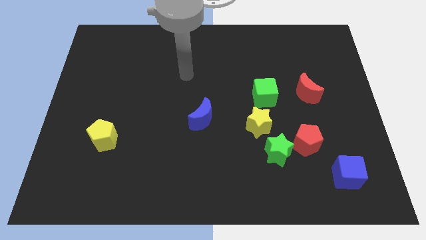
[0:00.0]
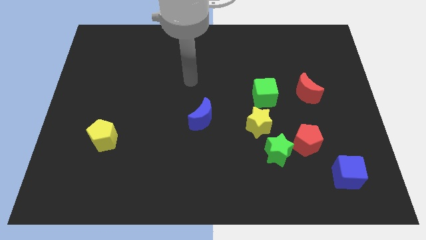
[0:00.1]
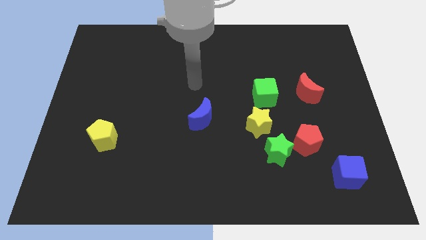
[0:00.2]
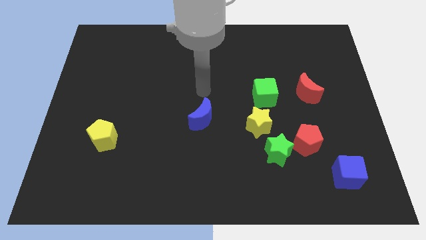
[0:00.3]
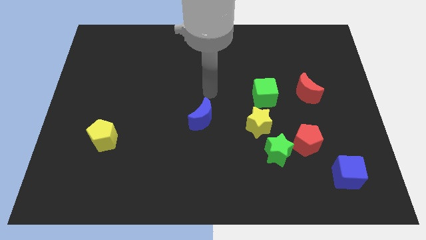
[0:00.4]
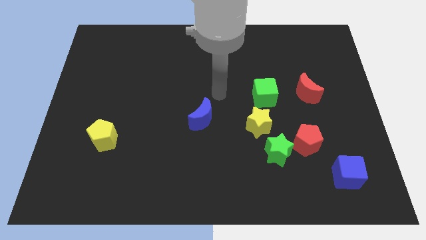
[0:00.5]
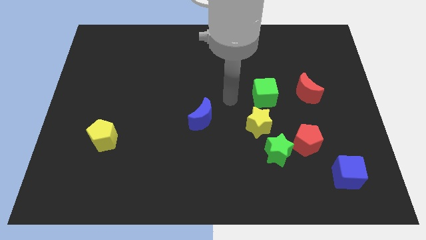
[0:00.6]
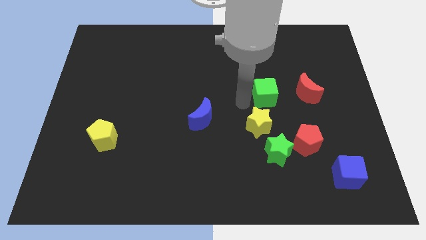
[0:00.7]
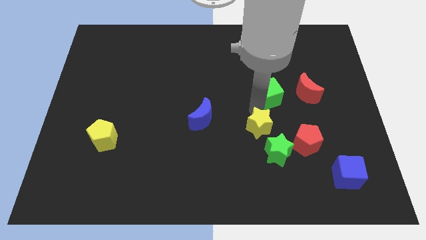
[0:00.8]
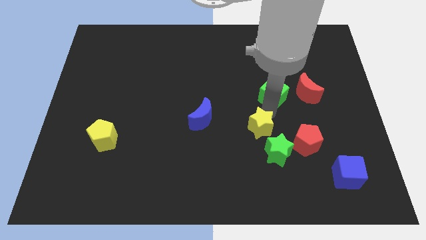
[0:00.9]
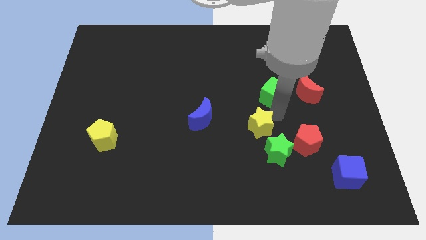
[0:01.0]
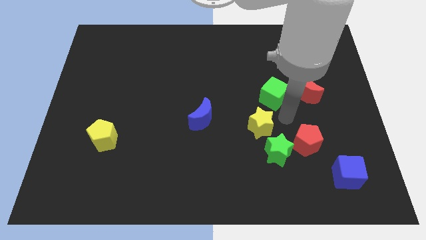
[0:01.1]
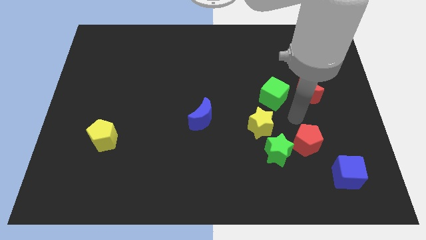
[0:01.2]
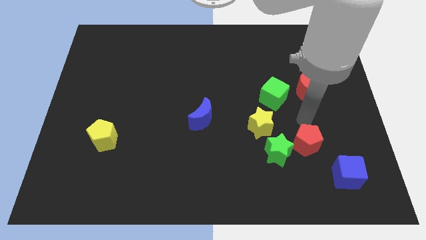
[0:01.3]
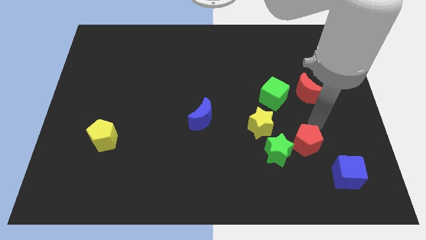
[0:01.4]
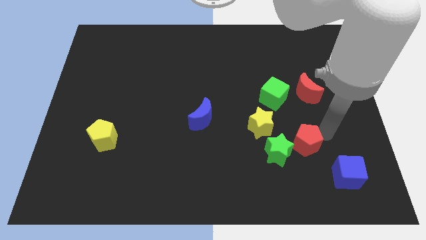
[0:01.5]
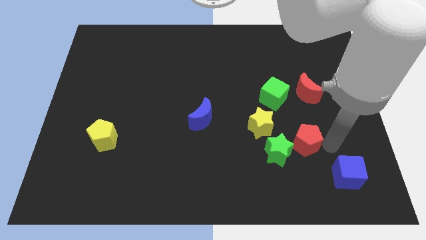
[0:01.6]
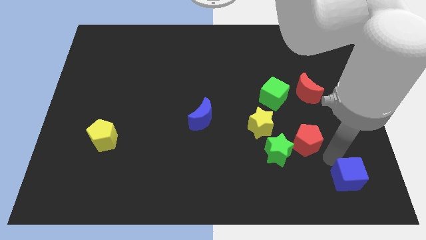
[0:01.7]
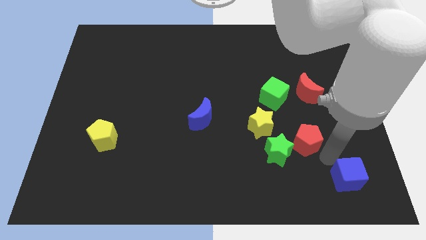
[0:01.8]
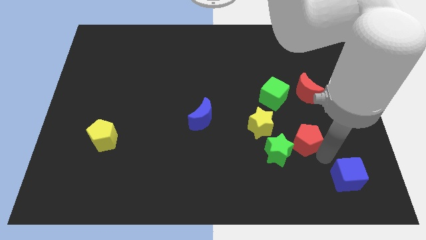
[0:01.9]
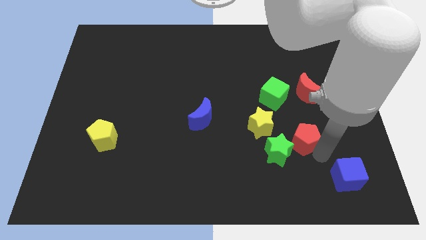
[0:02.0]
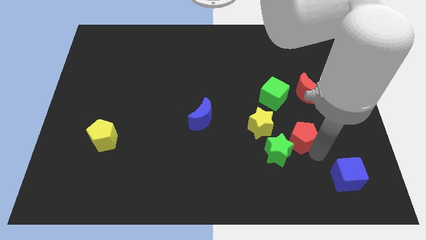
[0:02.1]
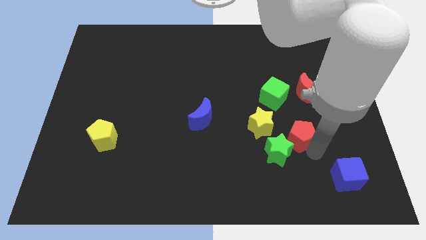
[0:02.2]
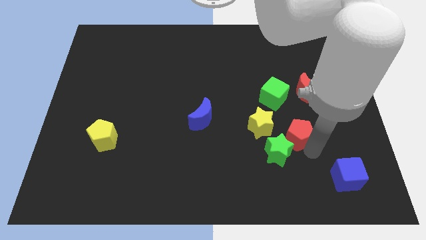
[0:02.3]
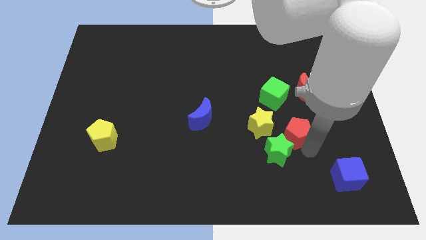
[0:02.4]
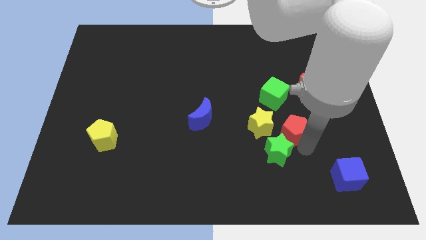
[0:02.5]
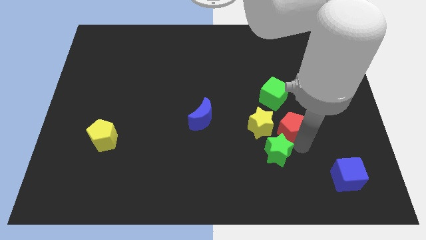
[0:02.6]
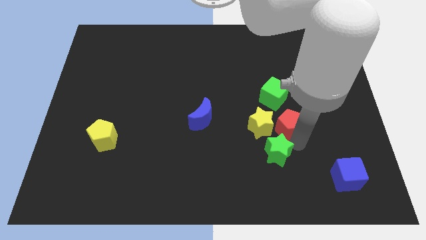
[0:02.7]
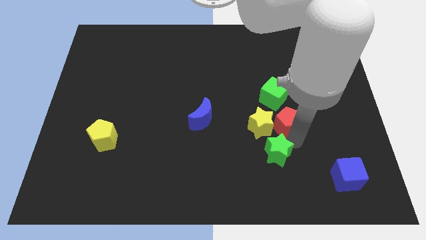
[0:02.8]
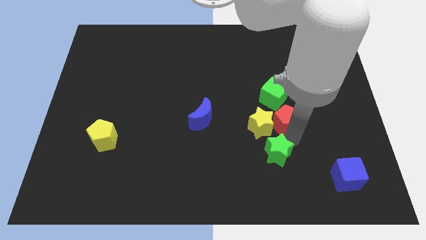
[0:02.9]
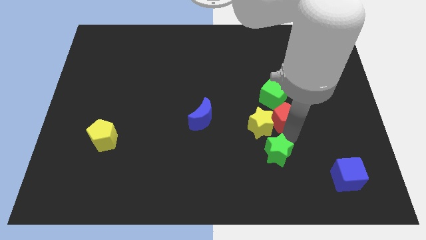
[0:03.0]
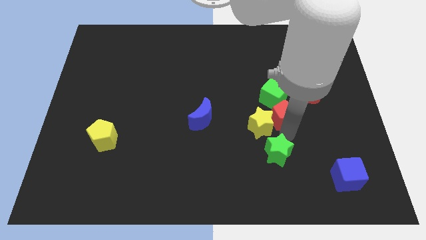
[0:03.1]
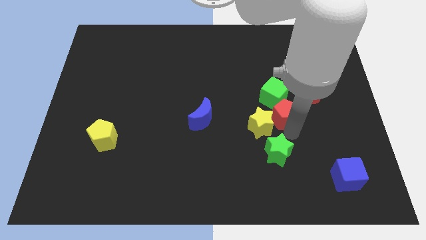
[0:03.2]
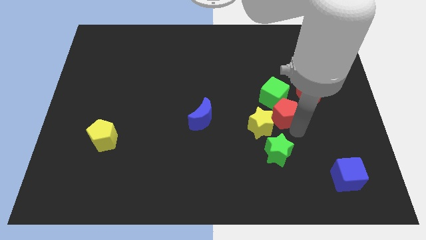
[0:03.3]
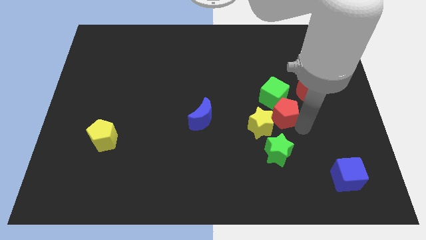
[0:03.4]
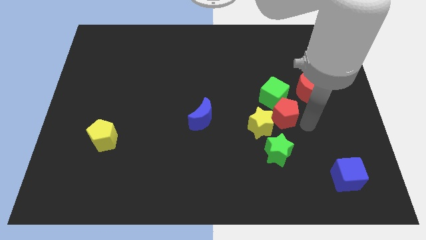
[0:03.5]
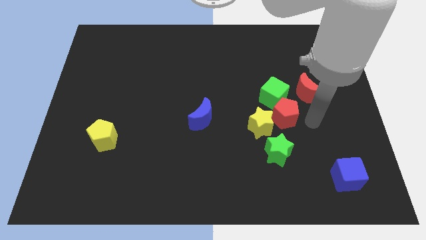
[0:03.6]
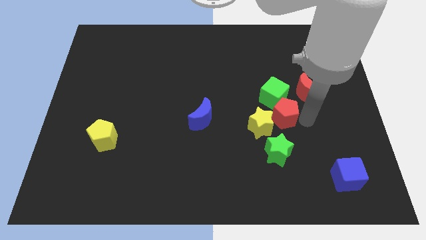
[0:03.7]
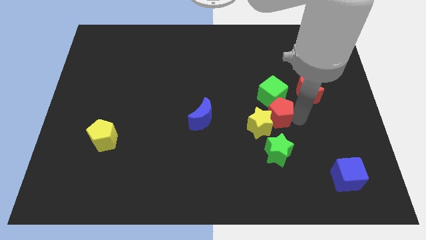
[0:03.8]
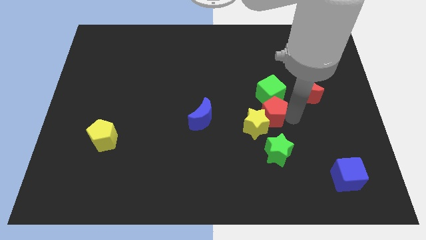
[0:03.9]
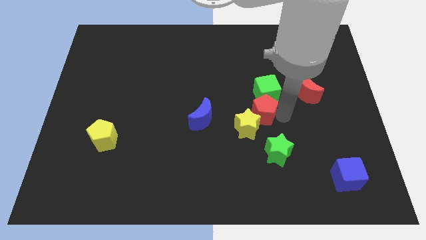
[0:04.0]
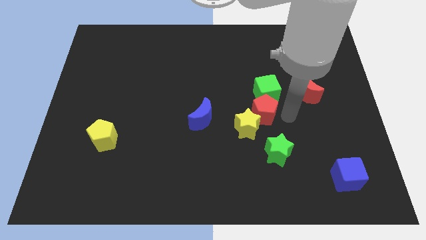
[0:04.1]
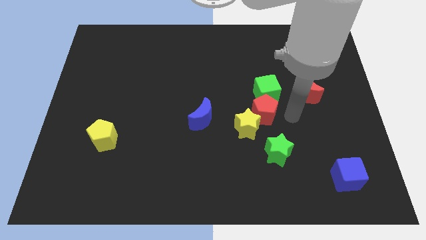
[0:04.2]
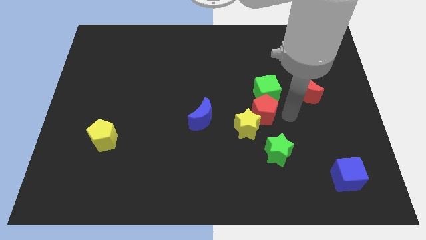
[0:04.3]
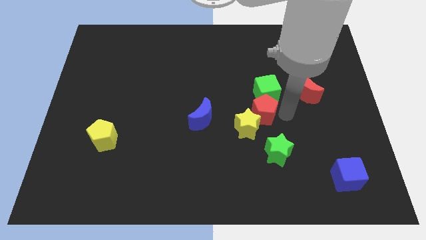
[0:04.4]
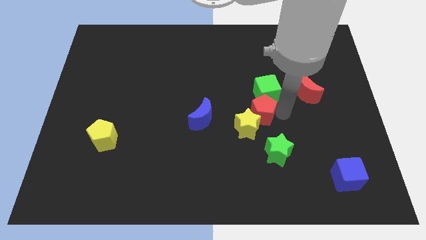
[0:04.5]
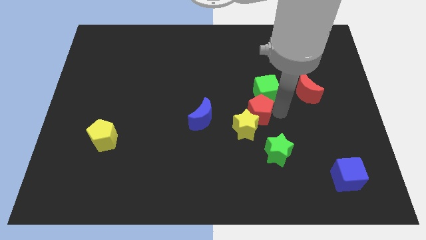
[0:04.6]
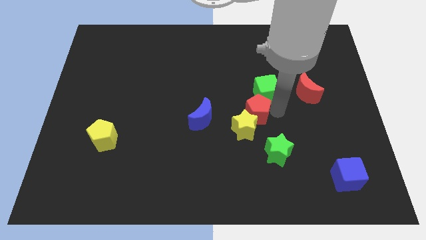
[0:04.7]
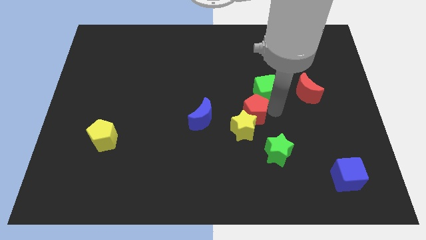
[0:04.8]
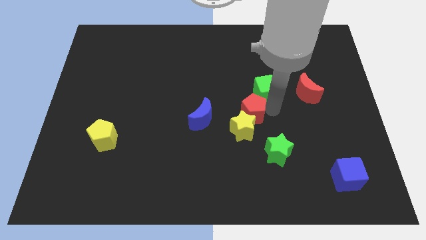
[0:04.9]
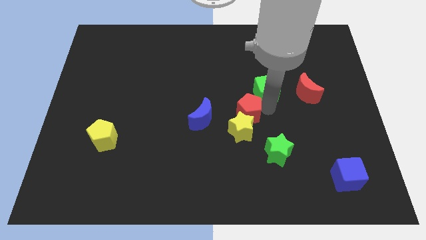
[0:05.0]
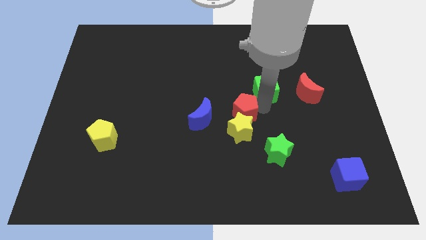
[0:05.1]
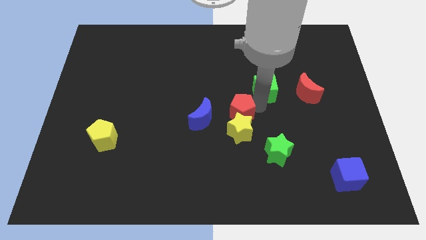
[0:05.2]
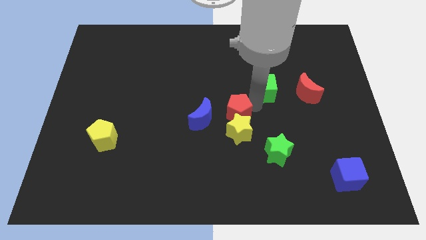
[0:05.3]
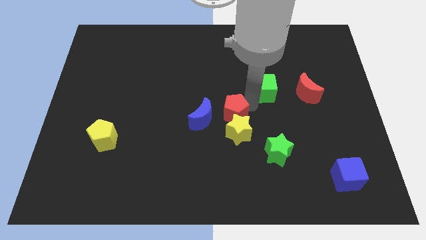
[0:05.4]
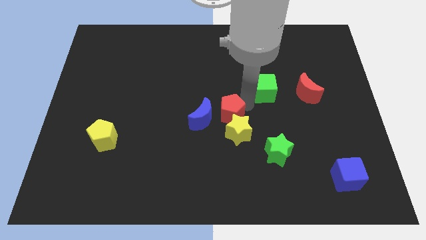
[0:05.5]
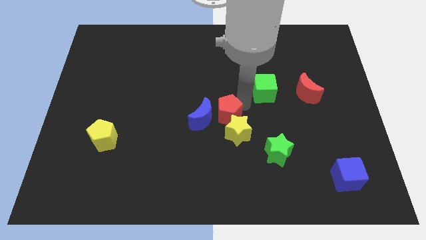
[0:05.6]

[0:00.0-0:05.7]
move the red pentagon close to the blue moon

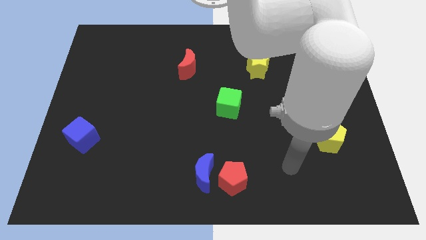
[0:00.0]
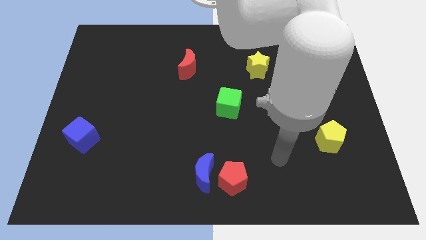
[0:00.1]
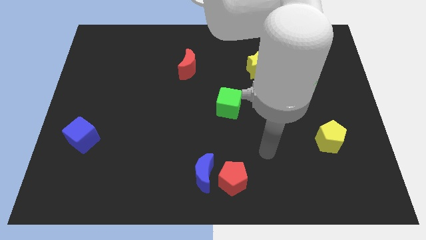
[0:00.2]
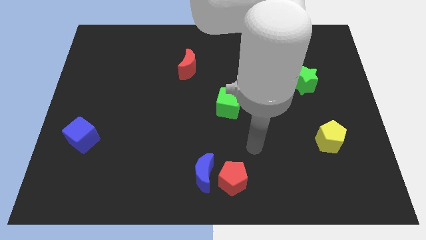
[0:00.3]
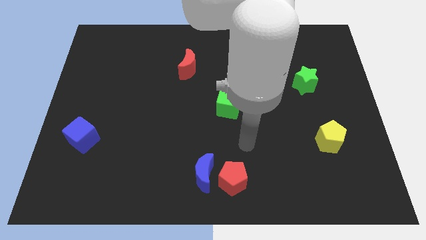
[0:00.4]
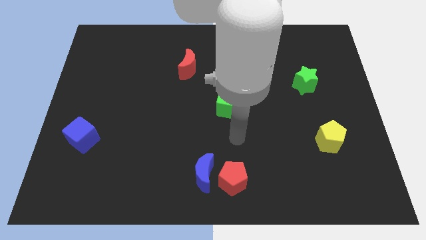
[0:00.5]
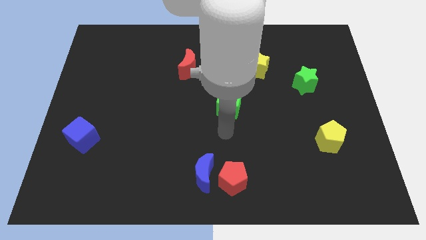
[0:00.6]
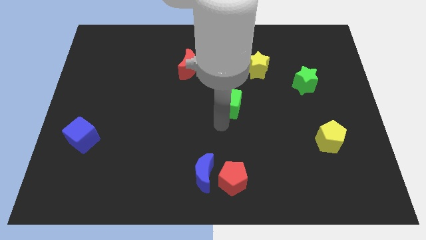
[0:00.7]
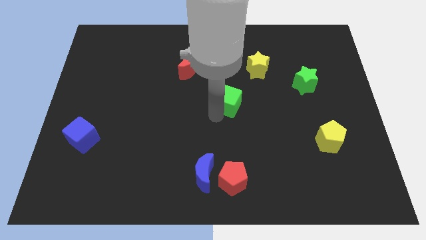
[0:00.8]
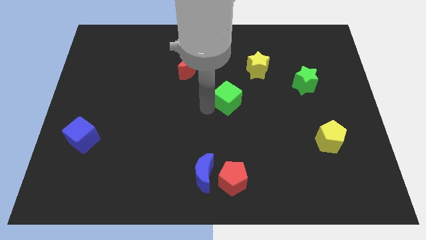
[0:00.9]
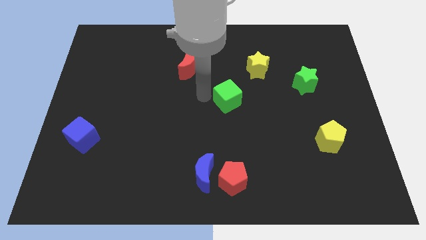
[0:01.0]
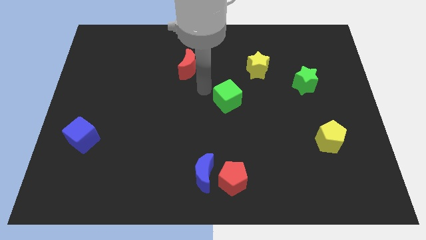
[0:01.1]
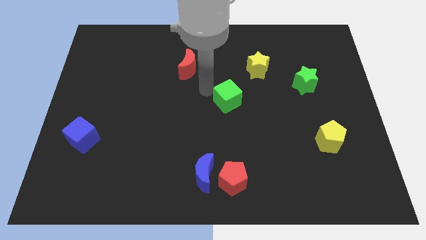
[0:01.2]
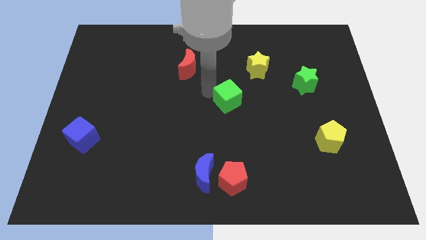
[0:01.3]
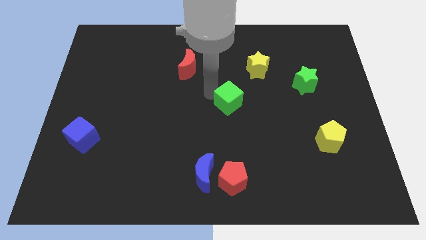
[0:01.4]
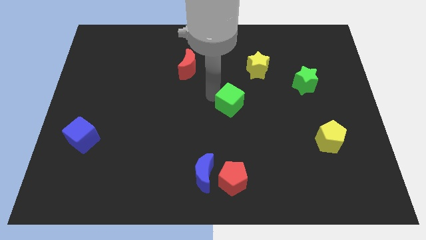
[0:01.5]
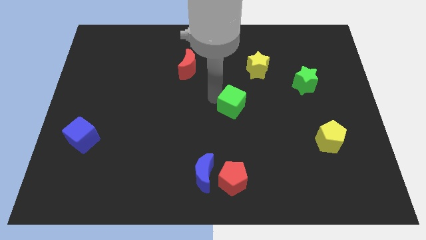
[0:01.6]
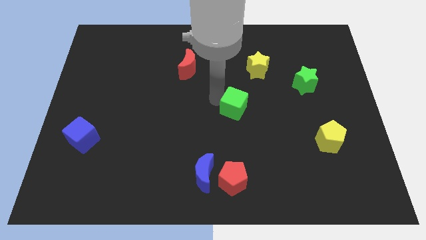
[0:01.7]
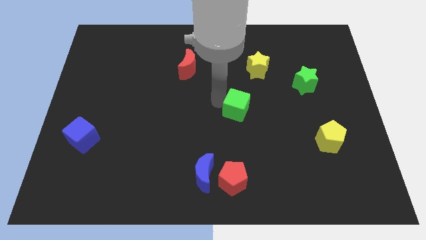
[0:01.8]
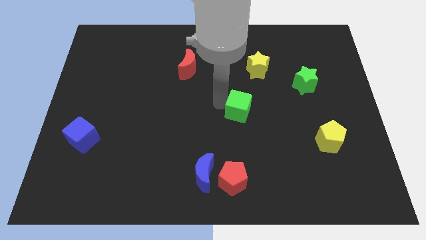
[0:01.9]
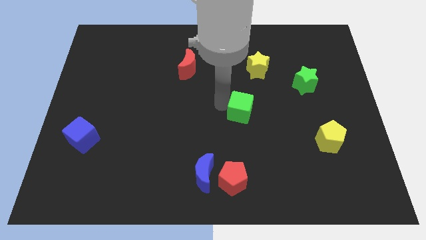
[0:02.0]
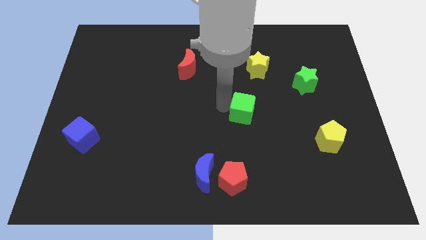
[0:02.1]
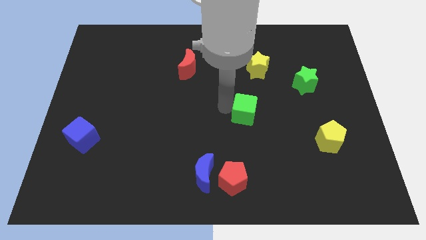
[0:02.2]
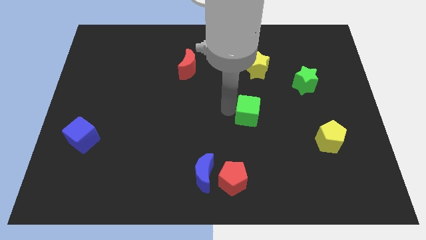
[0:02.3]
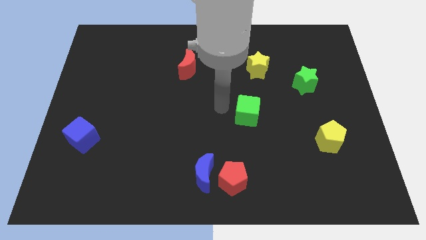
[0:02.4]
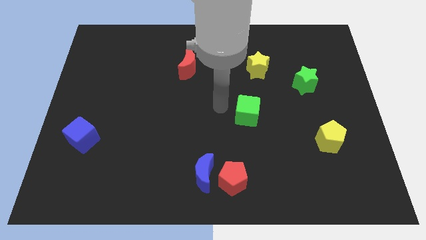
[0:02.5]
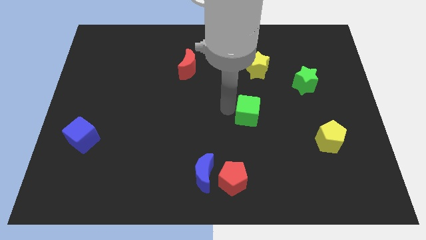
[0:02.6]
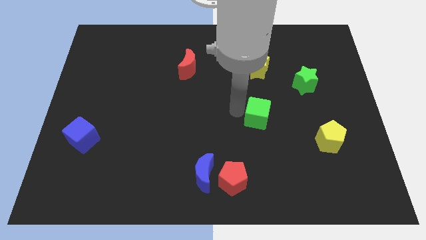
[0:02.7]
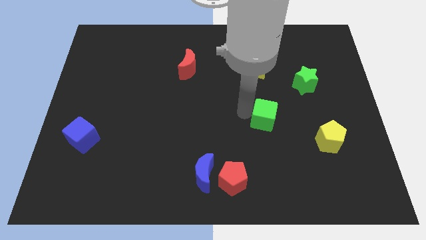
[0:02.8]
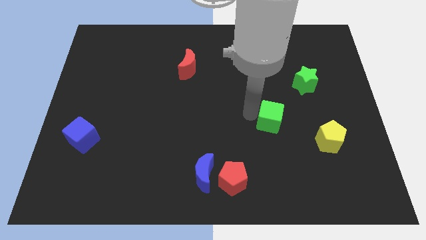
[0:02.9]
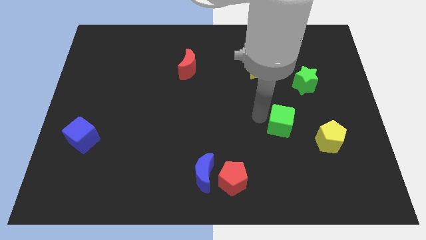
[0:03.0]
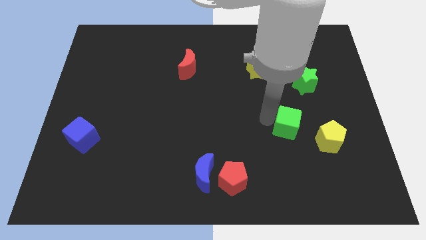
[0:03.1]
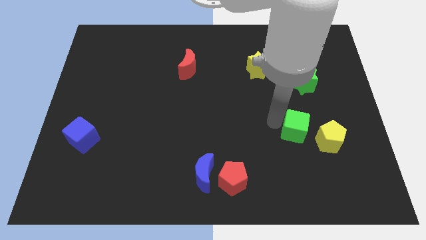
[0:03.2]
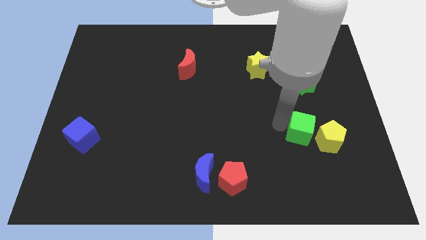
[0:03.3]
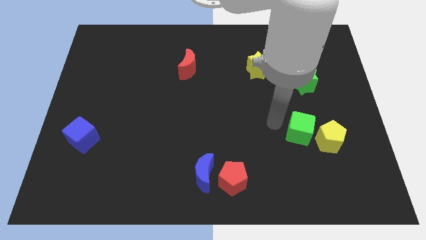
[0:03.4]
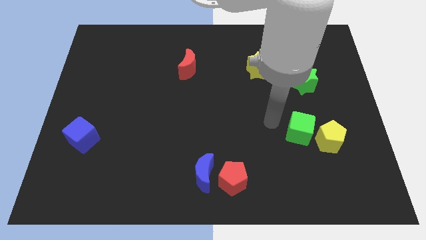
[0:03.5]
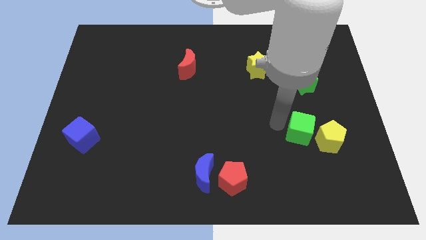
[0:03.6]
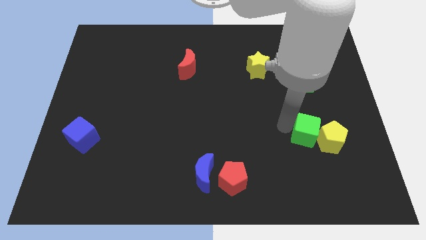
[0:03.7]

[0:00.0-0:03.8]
push the green cube to the yellow pentagon
